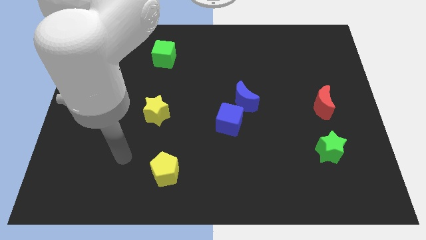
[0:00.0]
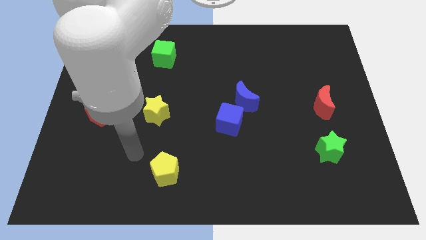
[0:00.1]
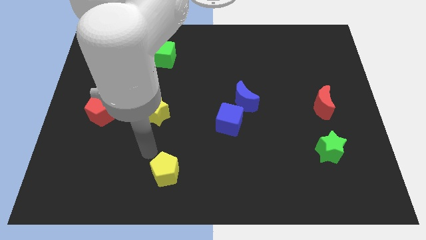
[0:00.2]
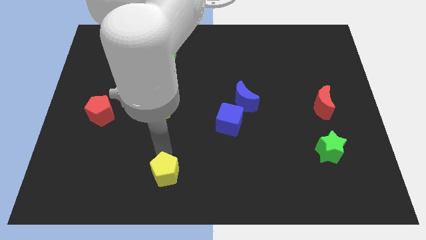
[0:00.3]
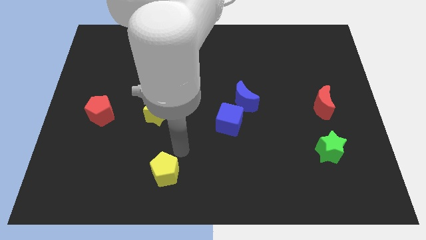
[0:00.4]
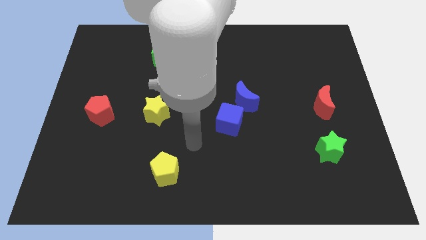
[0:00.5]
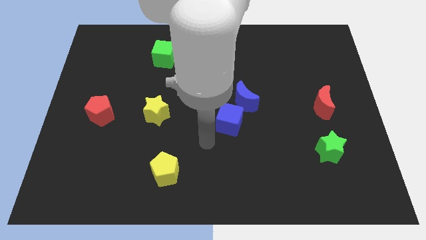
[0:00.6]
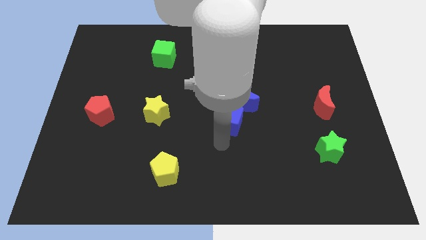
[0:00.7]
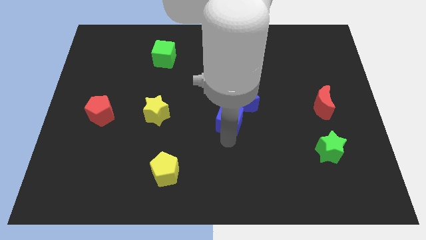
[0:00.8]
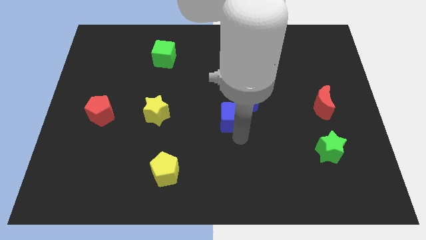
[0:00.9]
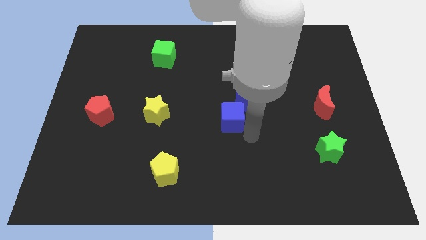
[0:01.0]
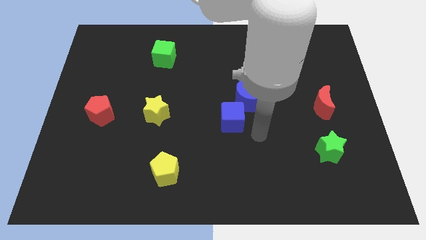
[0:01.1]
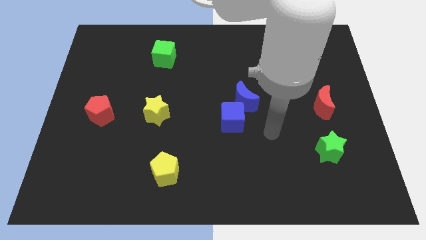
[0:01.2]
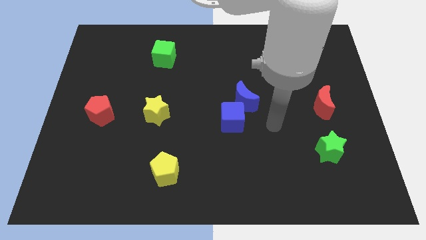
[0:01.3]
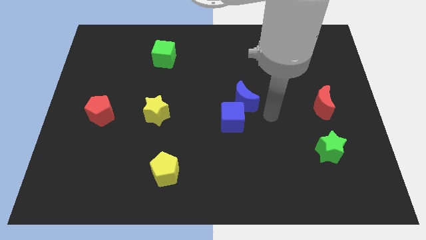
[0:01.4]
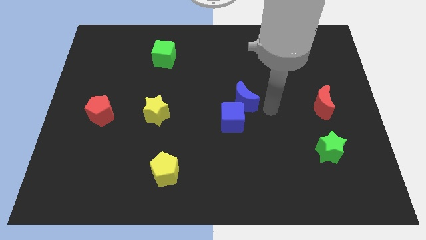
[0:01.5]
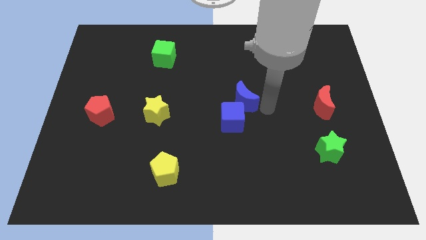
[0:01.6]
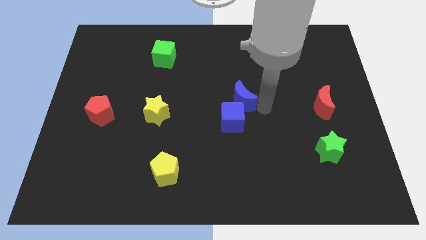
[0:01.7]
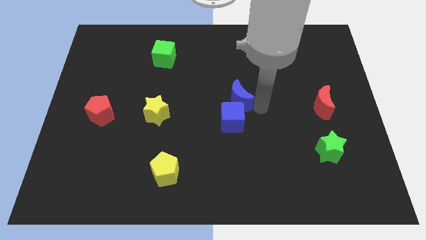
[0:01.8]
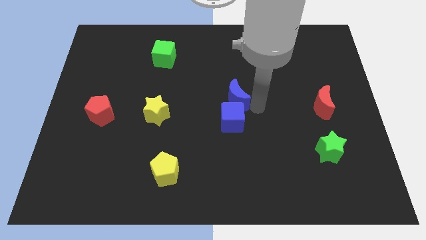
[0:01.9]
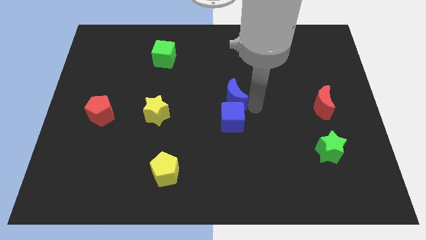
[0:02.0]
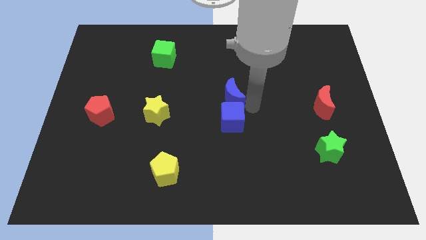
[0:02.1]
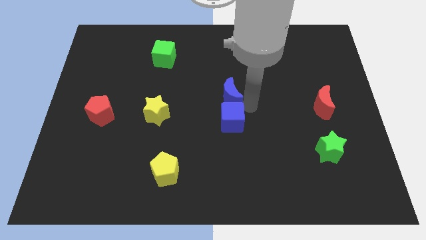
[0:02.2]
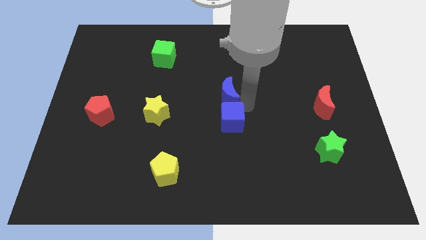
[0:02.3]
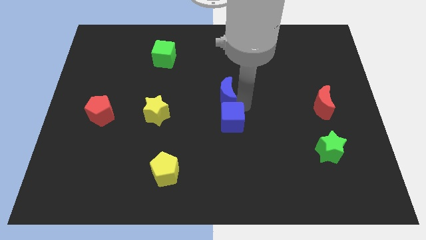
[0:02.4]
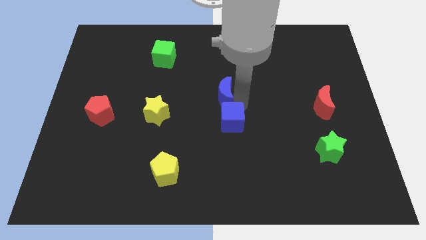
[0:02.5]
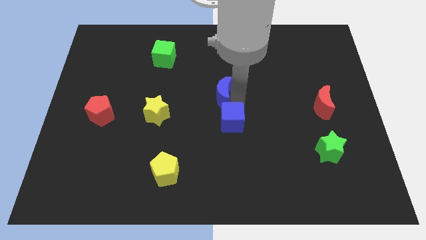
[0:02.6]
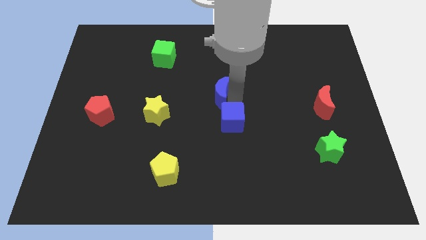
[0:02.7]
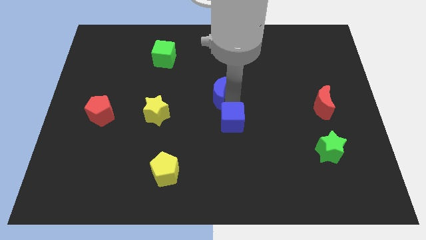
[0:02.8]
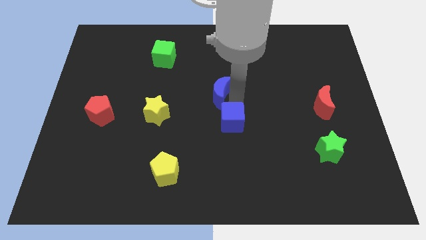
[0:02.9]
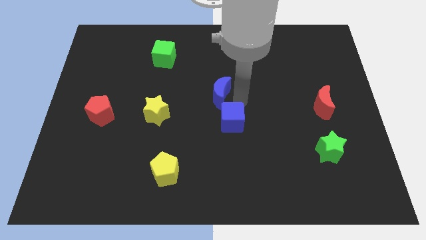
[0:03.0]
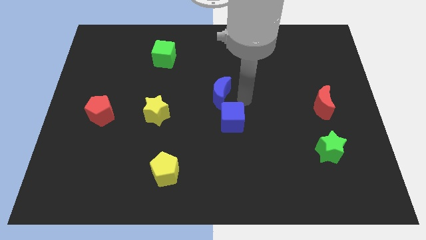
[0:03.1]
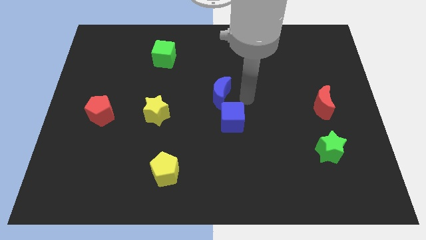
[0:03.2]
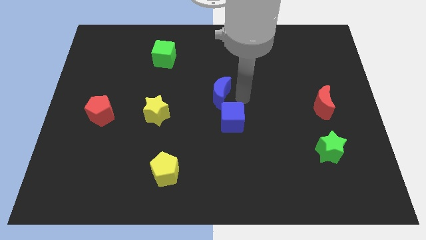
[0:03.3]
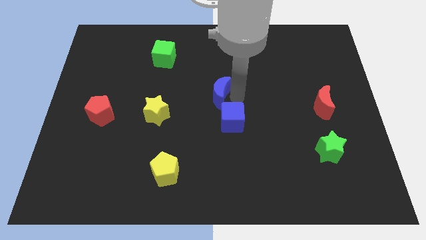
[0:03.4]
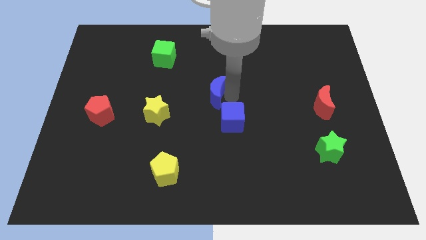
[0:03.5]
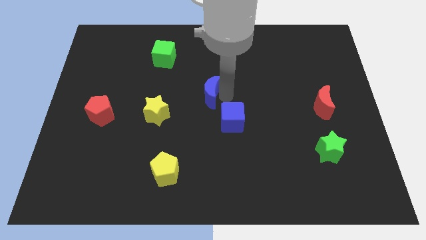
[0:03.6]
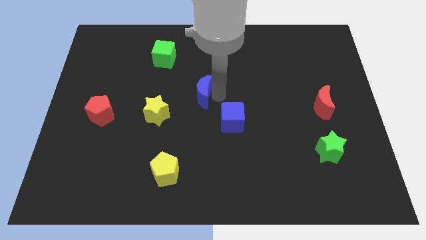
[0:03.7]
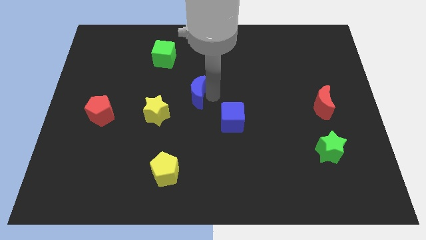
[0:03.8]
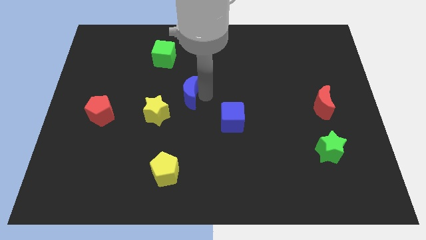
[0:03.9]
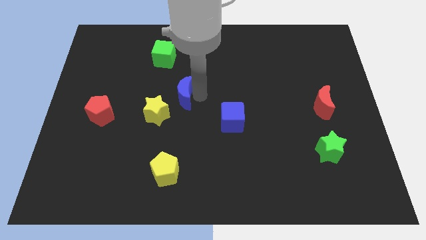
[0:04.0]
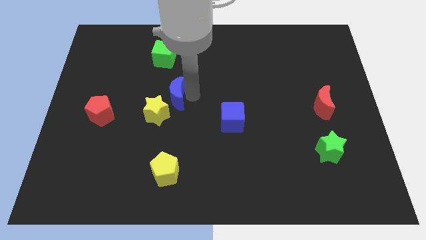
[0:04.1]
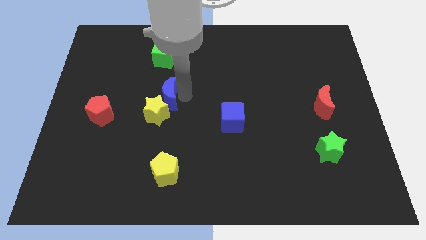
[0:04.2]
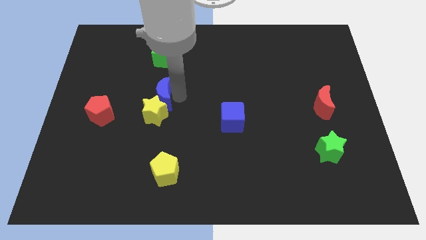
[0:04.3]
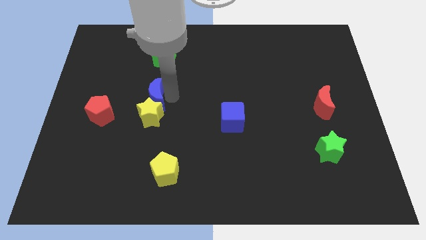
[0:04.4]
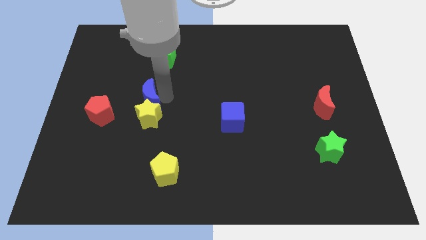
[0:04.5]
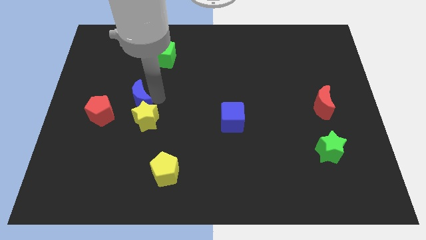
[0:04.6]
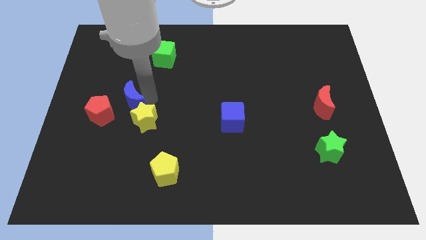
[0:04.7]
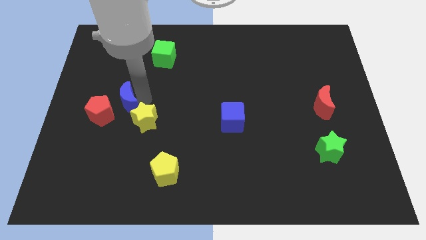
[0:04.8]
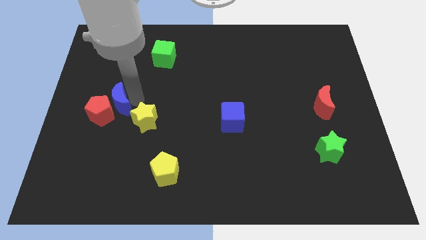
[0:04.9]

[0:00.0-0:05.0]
slide the blue moon towards the red pentagon

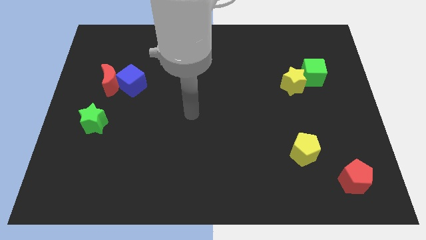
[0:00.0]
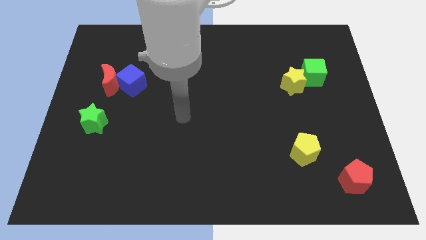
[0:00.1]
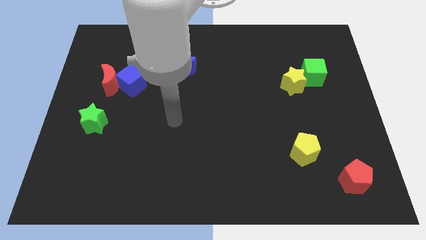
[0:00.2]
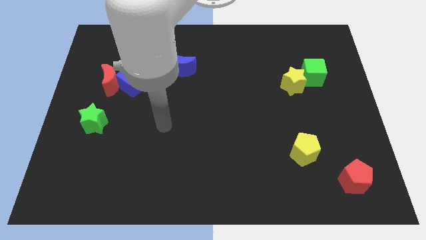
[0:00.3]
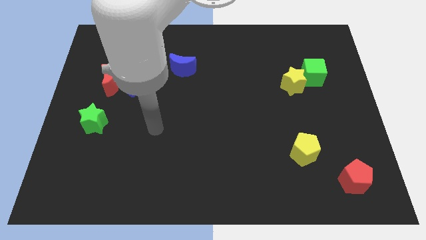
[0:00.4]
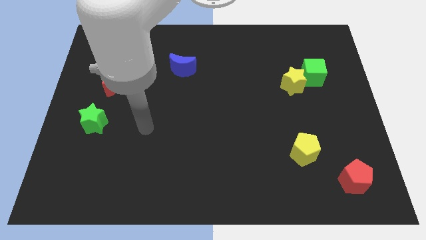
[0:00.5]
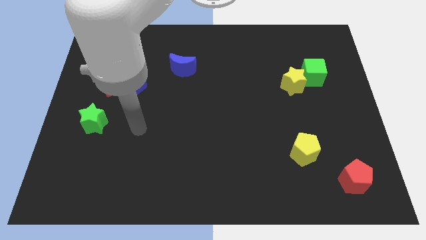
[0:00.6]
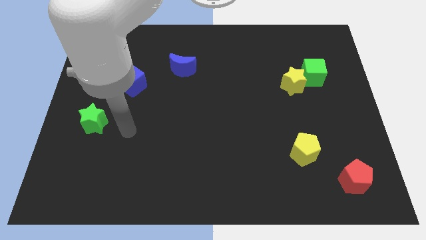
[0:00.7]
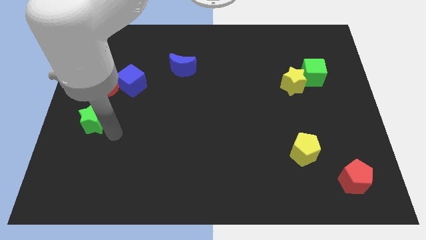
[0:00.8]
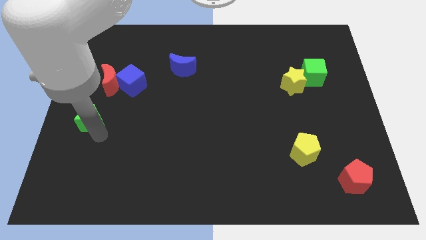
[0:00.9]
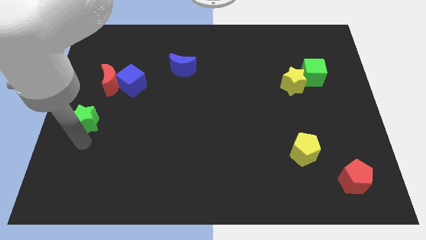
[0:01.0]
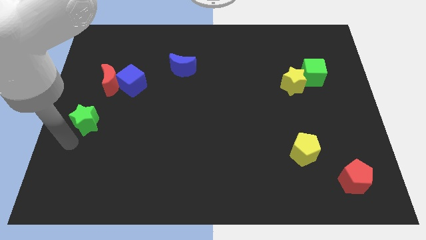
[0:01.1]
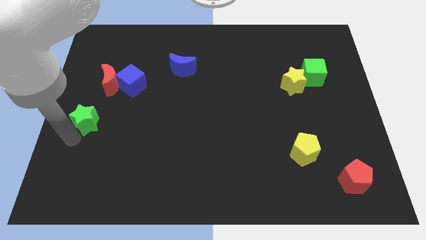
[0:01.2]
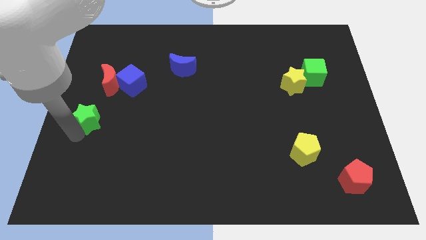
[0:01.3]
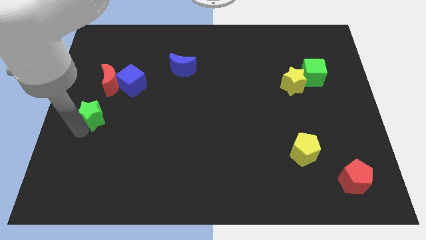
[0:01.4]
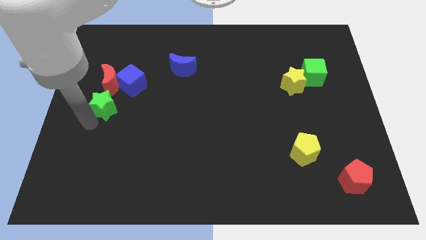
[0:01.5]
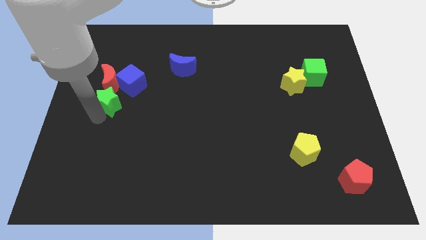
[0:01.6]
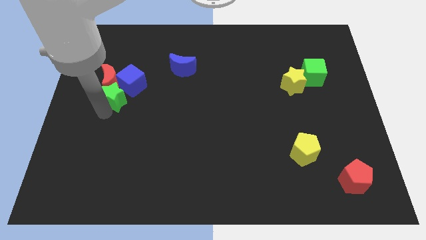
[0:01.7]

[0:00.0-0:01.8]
push the green star next to the red moon
